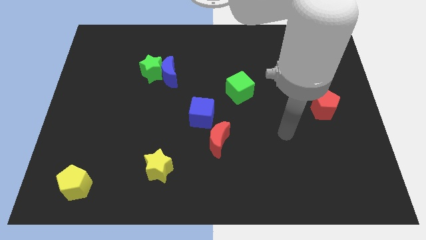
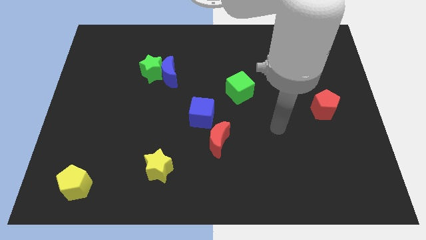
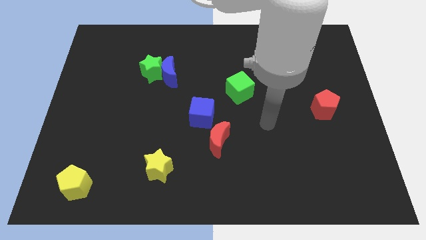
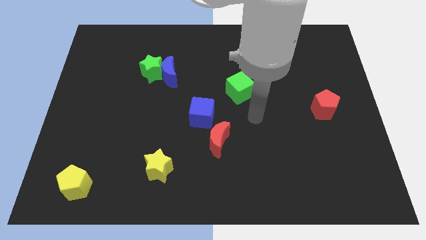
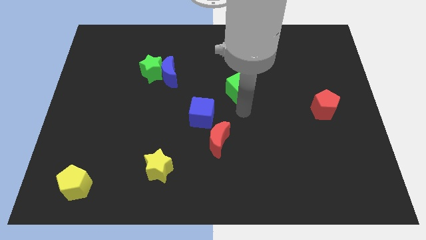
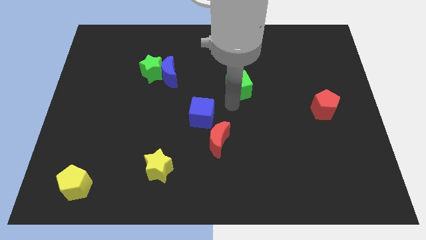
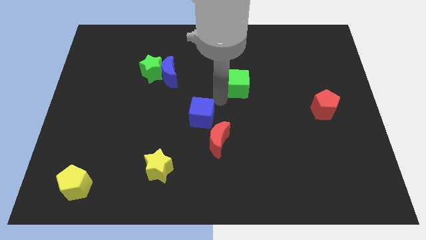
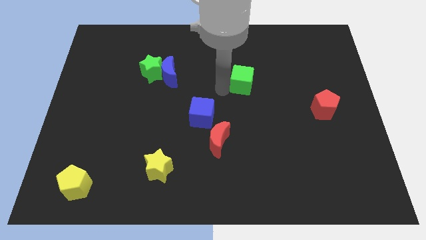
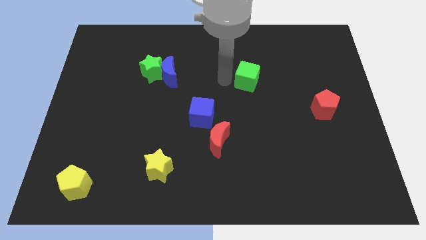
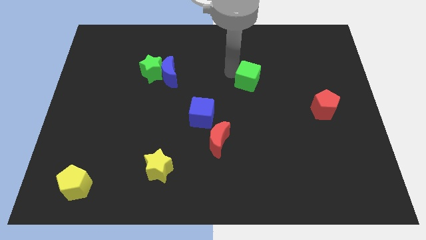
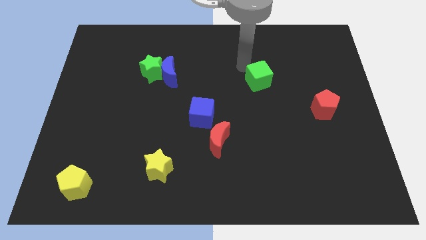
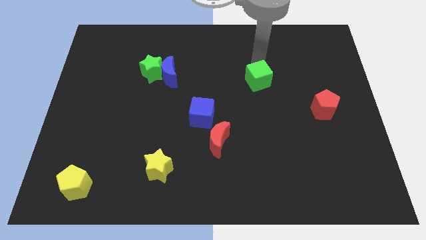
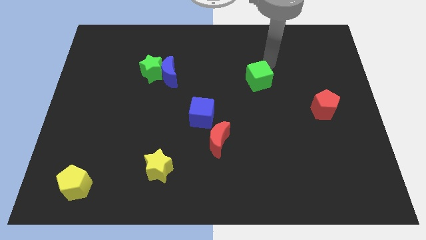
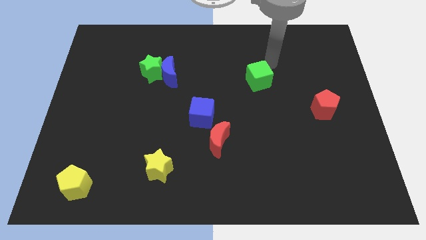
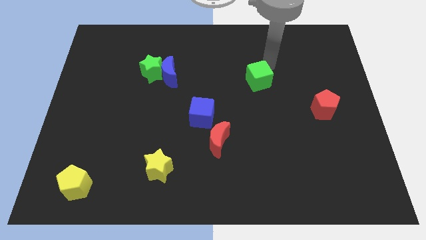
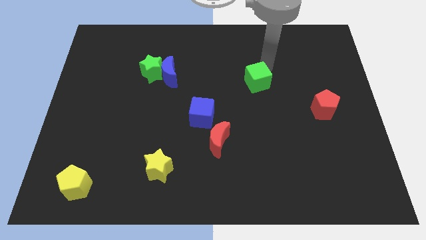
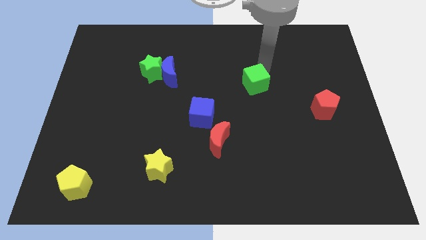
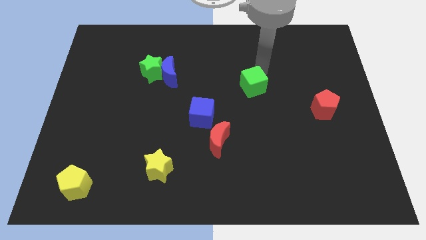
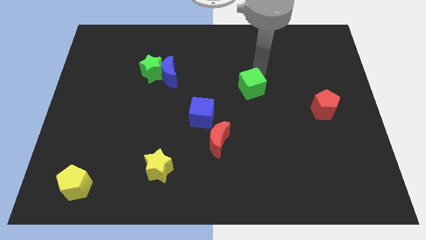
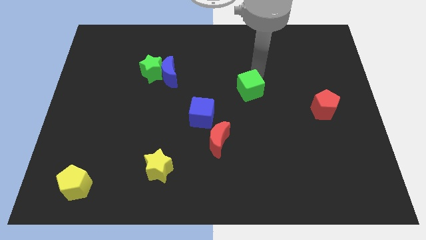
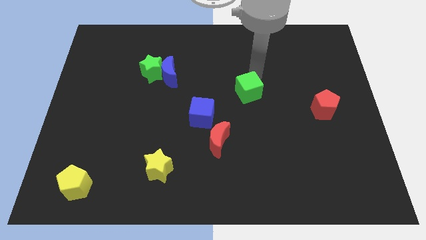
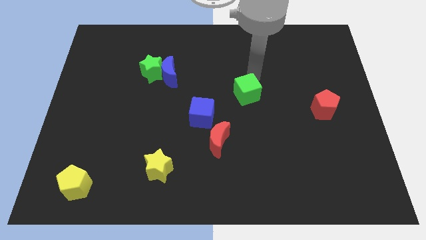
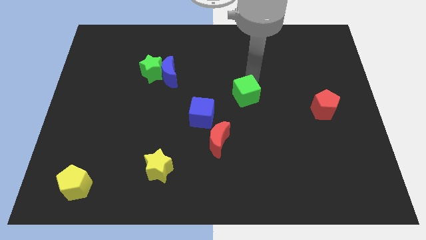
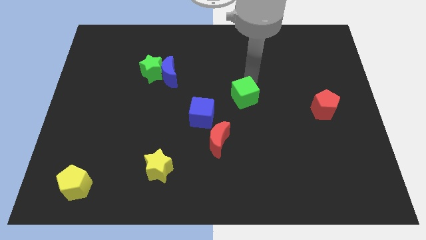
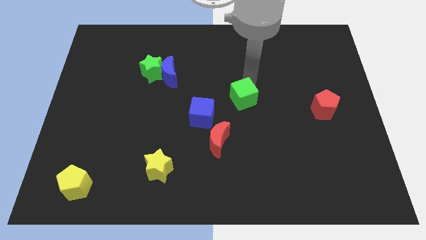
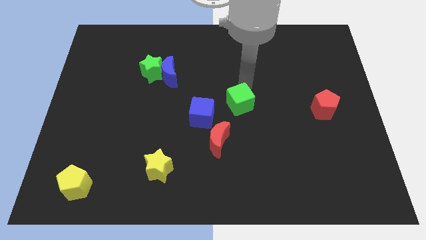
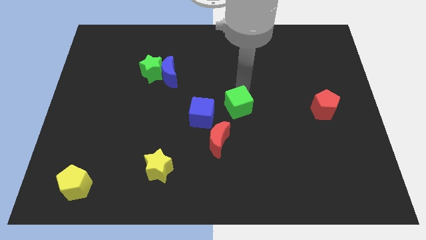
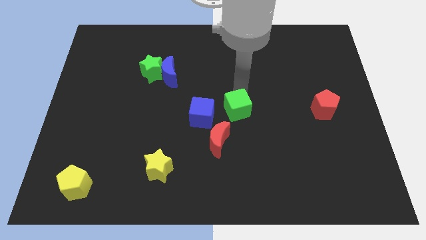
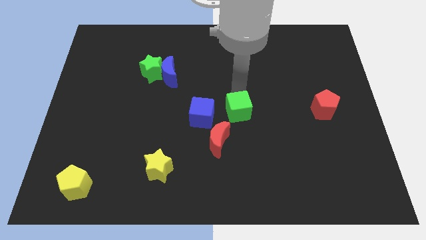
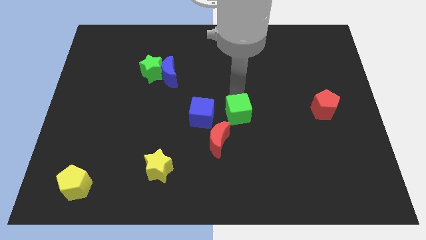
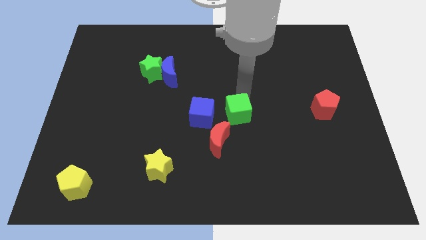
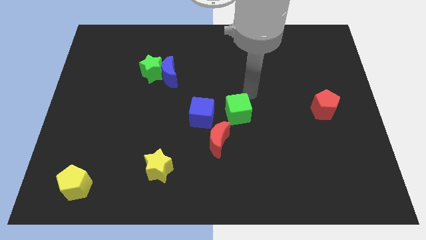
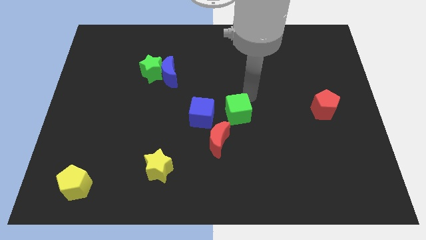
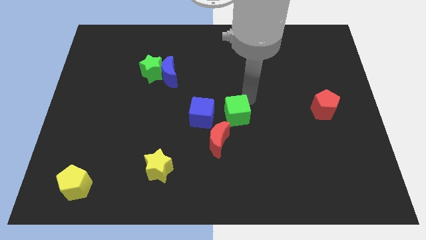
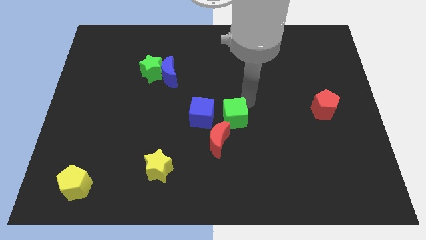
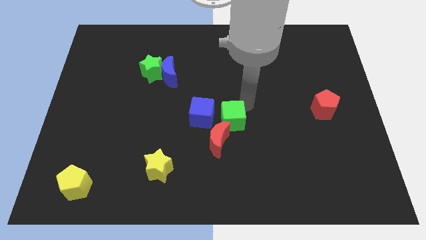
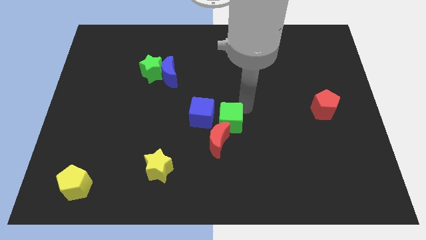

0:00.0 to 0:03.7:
move the green cube next to the red moon

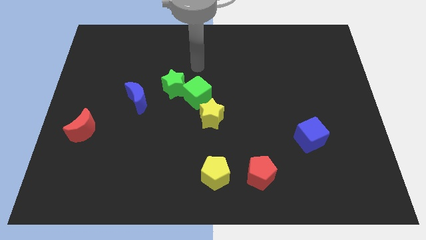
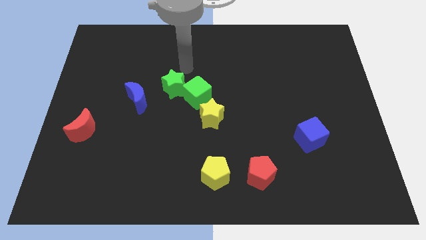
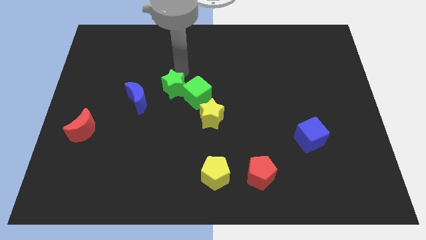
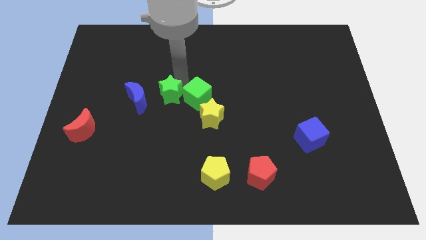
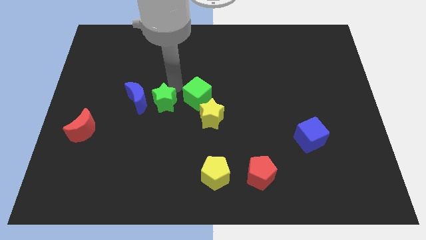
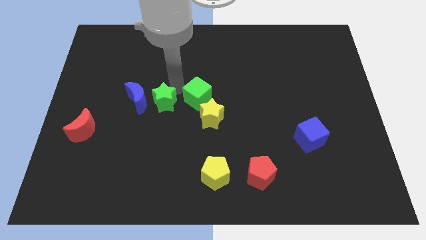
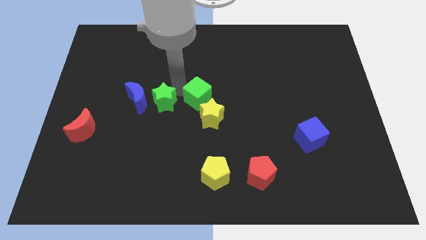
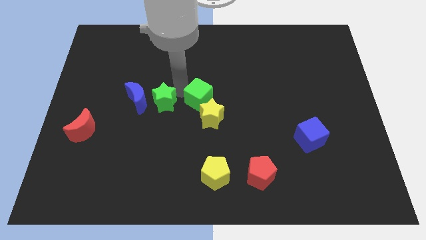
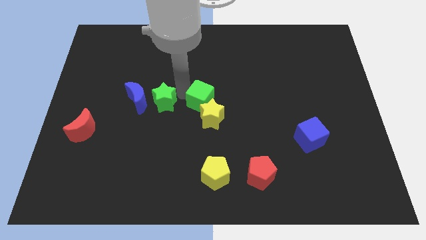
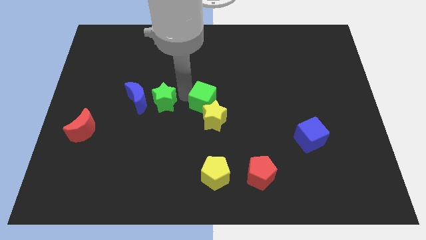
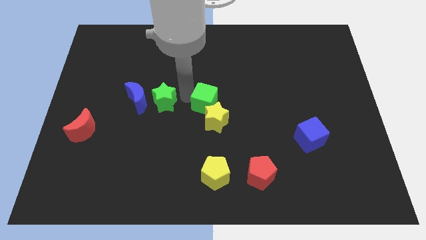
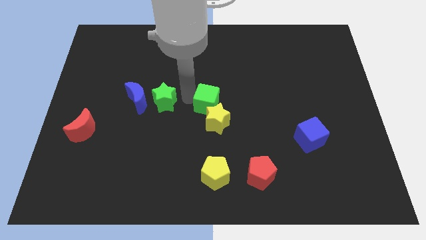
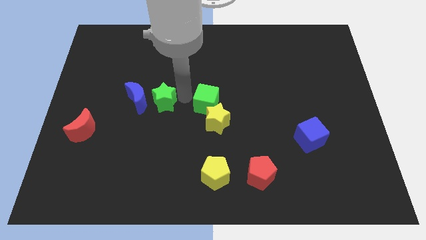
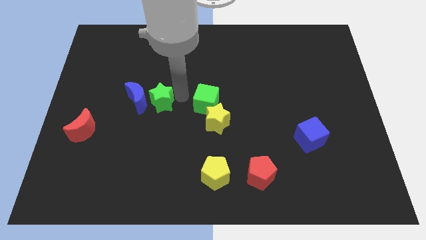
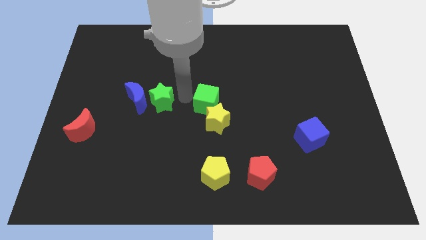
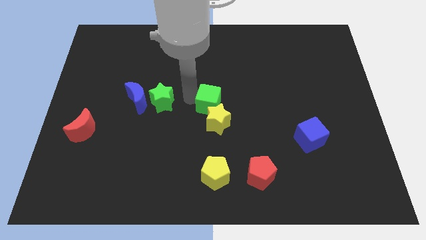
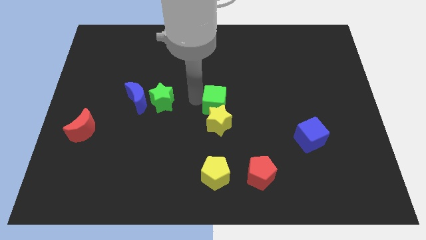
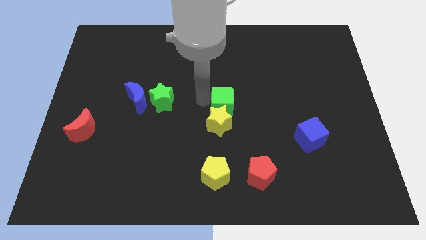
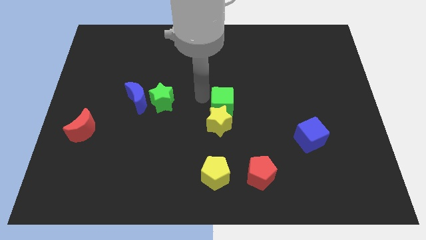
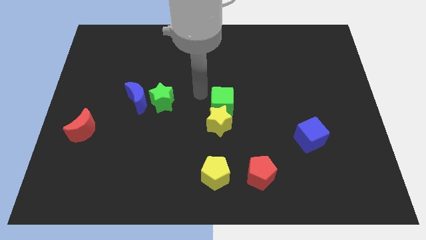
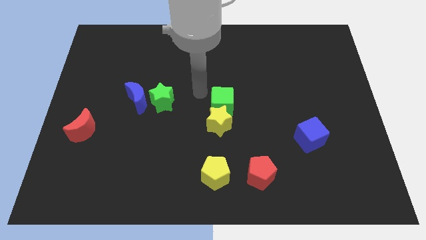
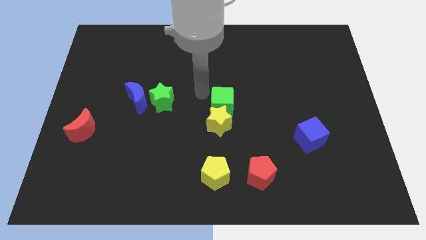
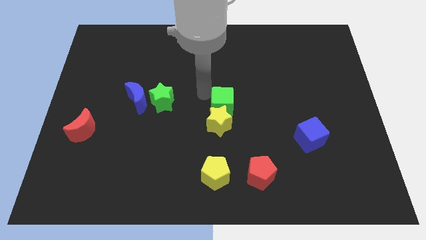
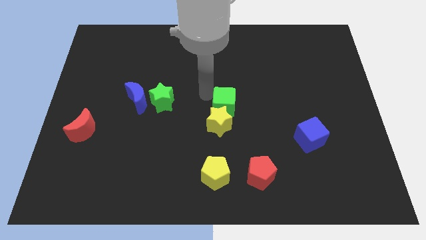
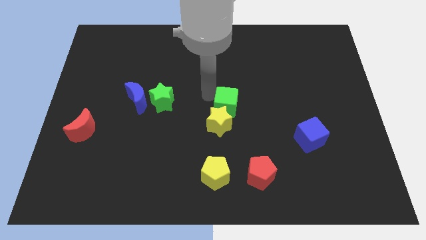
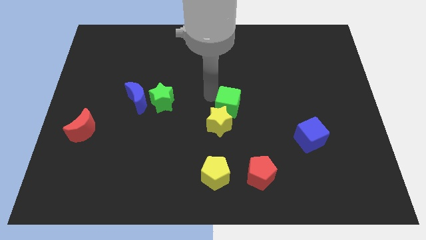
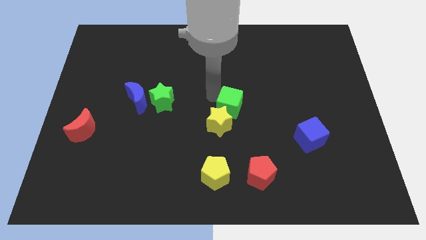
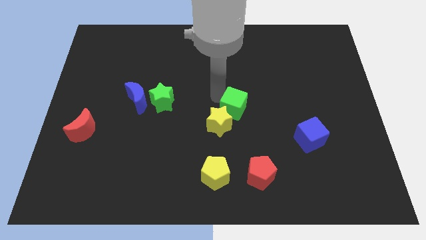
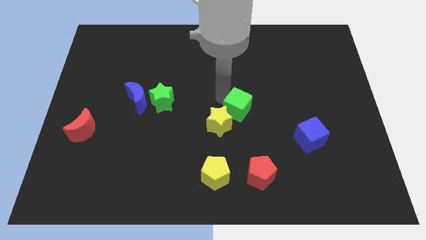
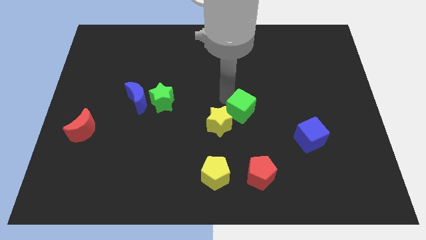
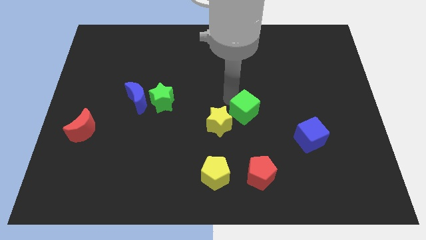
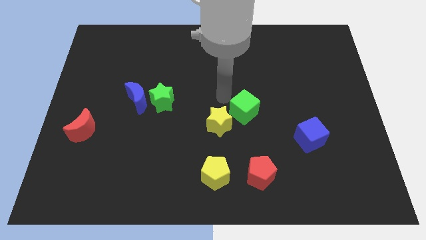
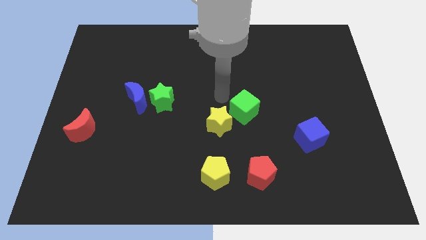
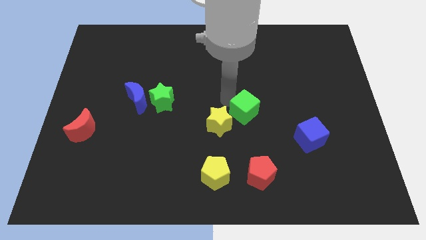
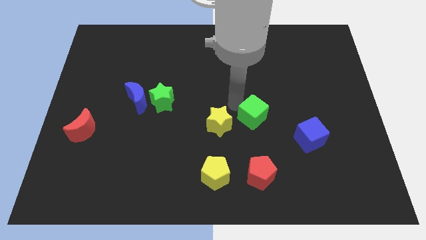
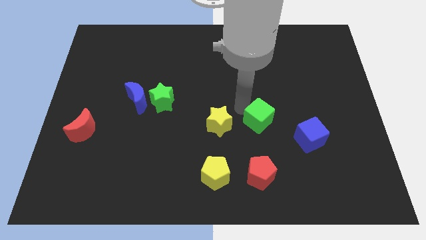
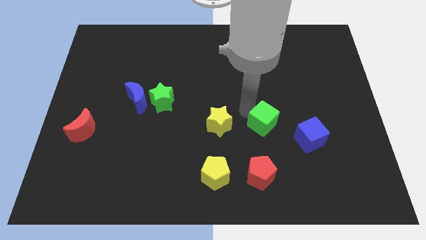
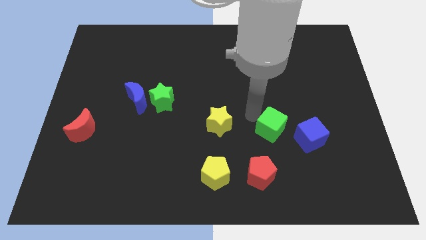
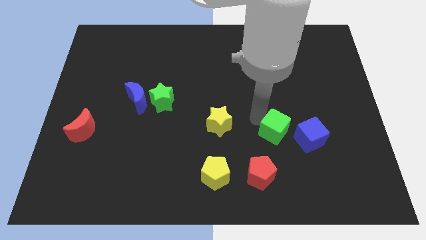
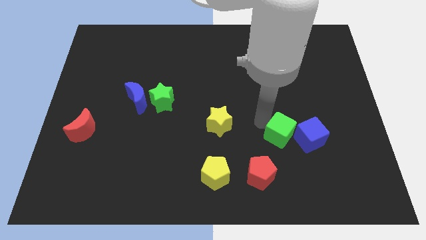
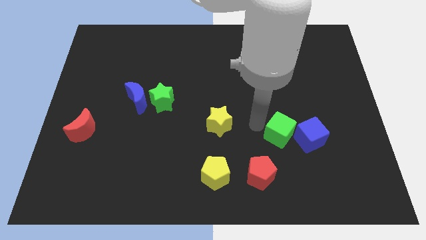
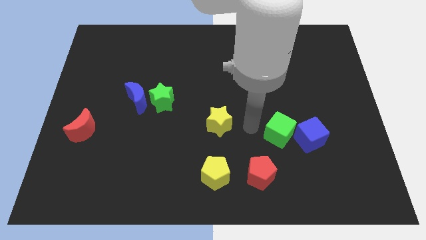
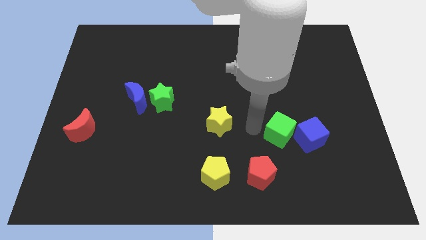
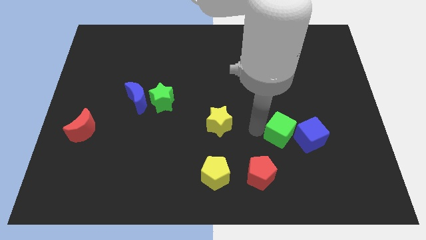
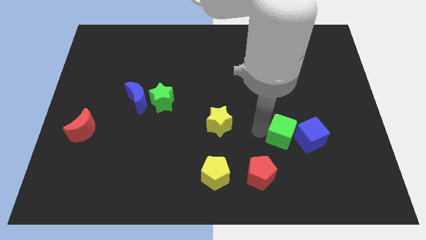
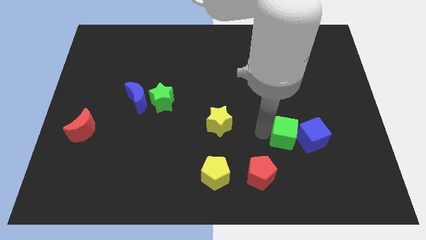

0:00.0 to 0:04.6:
put the green cube next to the blue cube
